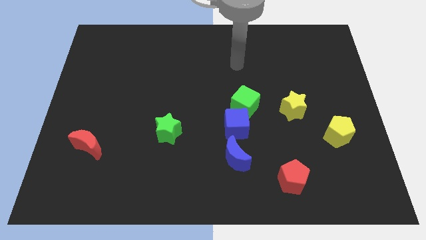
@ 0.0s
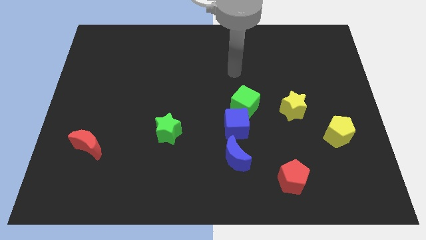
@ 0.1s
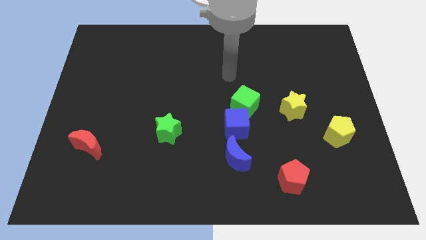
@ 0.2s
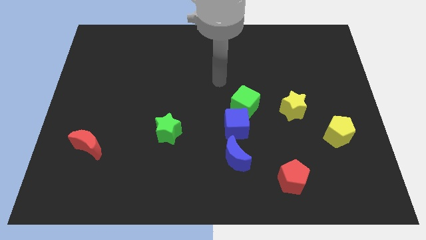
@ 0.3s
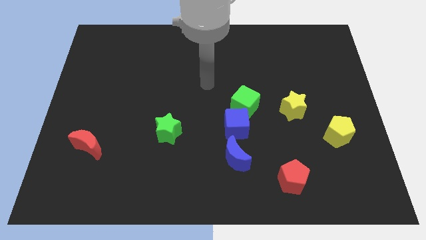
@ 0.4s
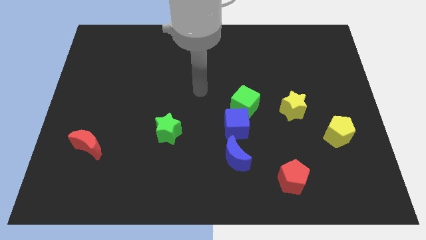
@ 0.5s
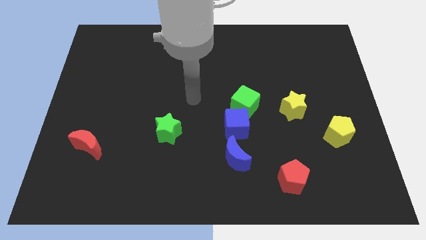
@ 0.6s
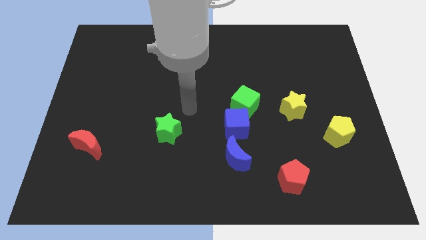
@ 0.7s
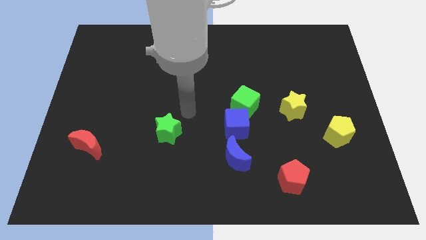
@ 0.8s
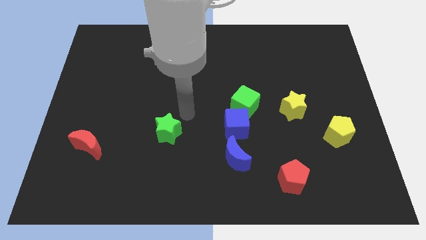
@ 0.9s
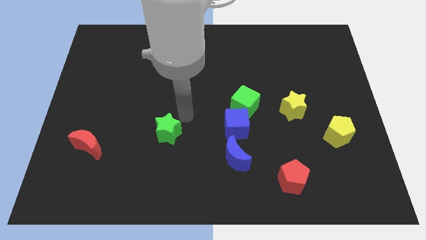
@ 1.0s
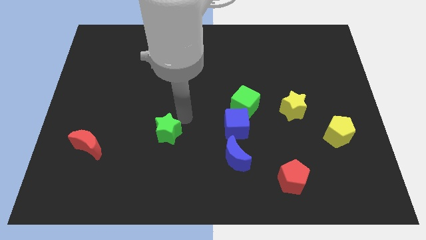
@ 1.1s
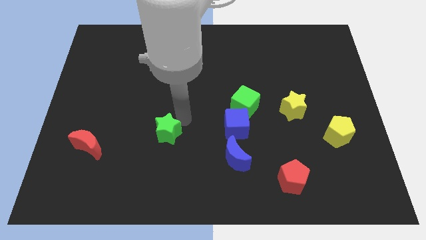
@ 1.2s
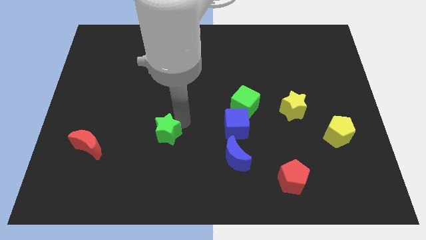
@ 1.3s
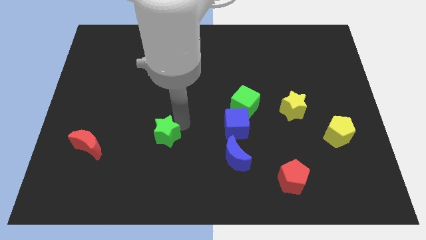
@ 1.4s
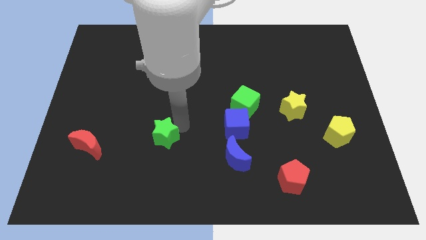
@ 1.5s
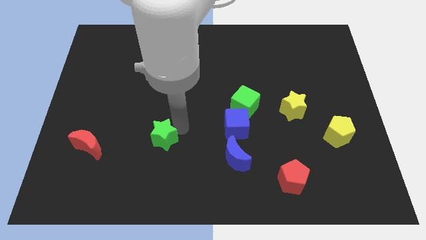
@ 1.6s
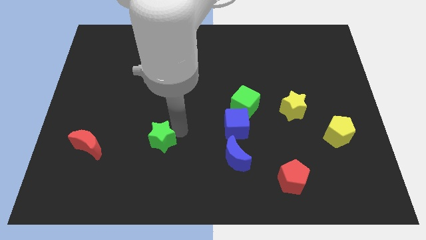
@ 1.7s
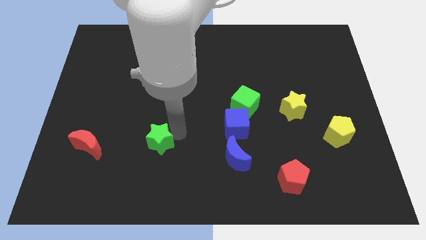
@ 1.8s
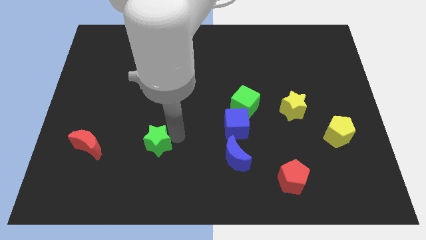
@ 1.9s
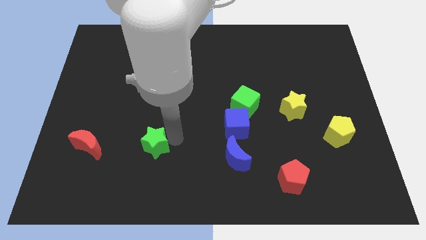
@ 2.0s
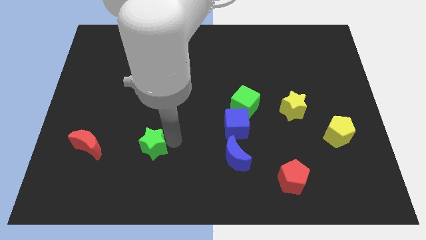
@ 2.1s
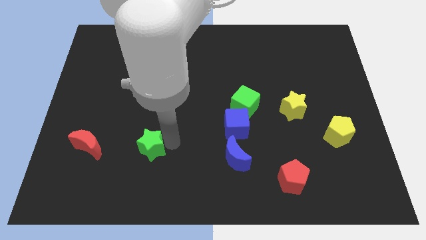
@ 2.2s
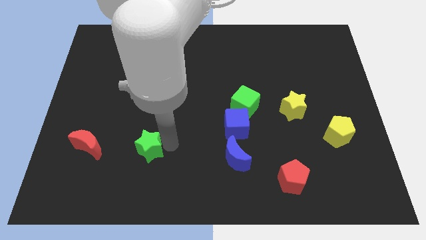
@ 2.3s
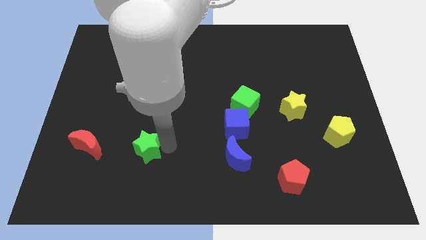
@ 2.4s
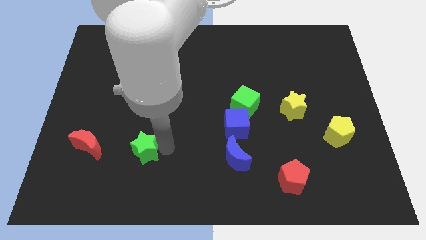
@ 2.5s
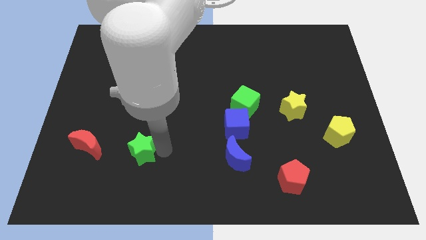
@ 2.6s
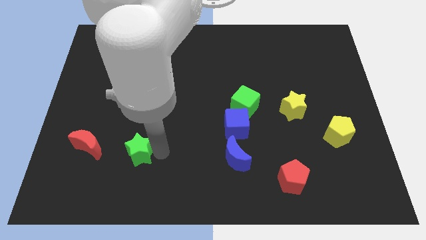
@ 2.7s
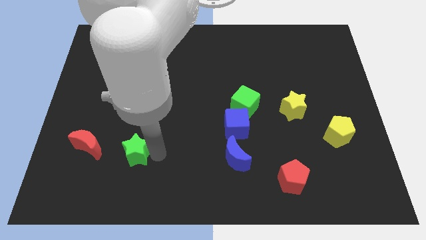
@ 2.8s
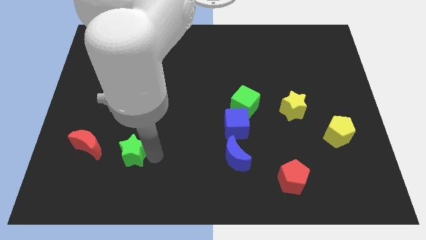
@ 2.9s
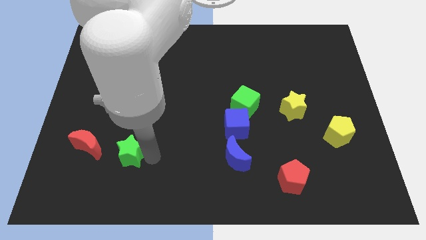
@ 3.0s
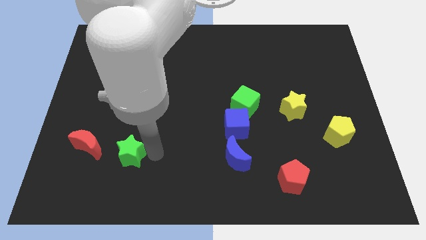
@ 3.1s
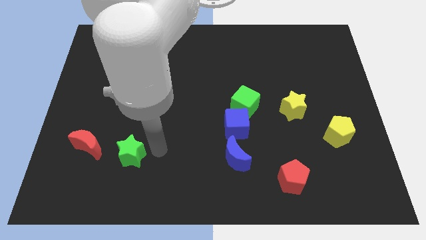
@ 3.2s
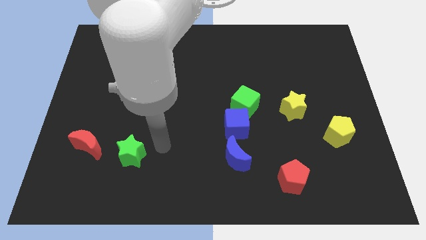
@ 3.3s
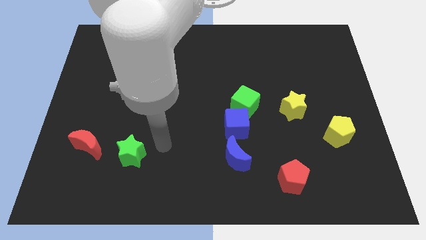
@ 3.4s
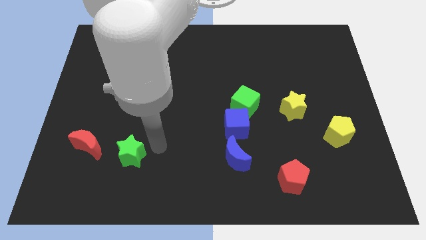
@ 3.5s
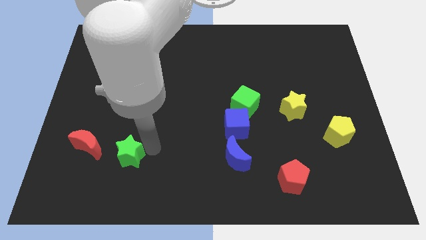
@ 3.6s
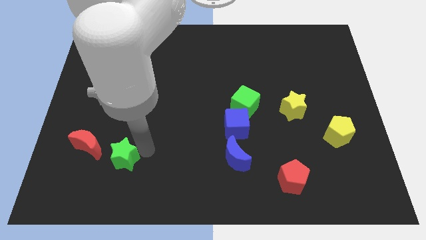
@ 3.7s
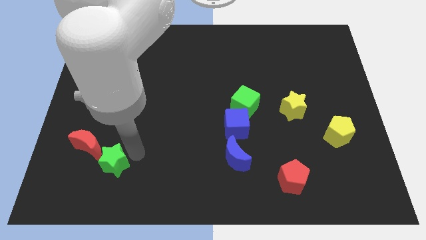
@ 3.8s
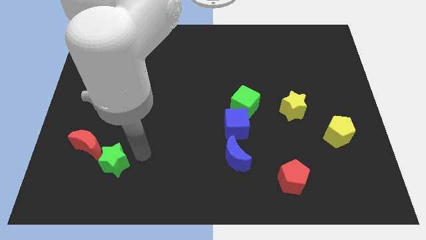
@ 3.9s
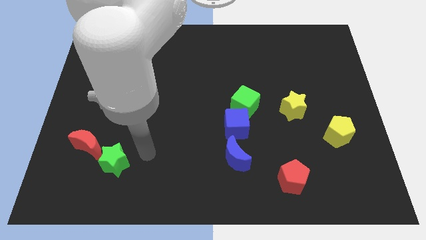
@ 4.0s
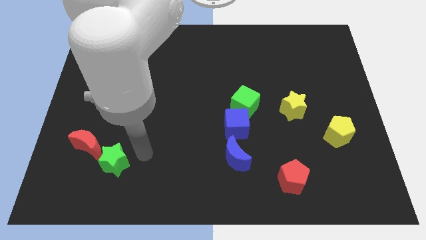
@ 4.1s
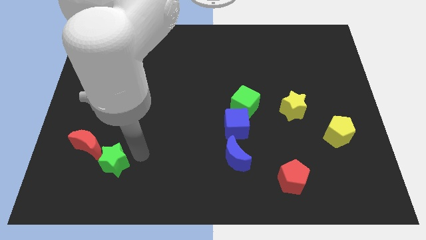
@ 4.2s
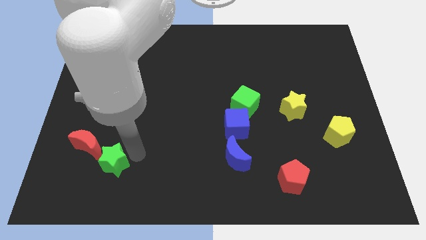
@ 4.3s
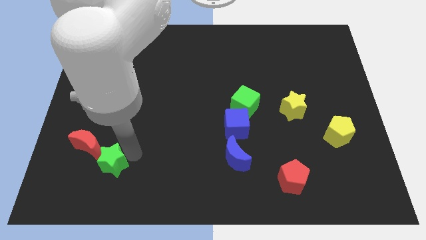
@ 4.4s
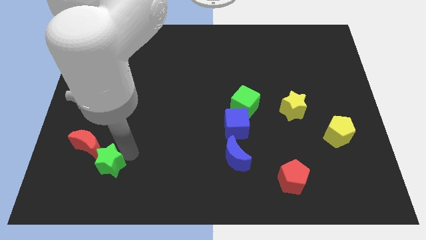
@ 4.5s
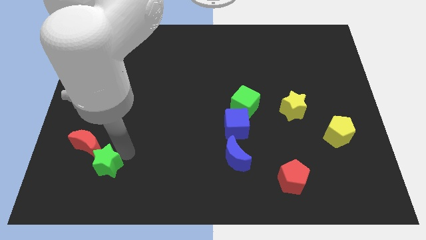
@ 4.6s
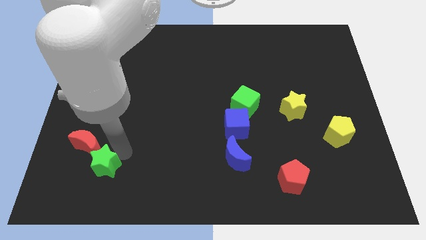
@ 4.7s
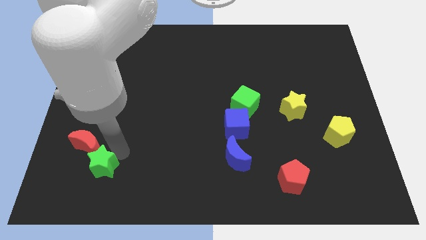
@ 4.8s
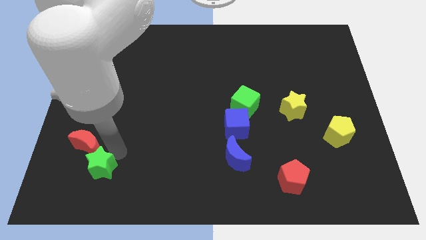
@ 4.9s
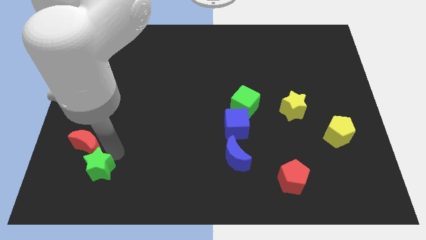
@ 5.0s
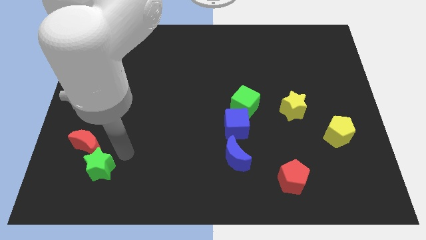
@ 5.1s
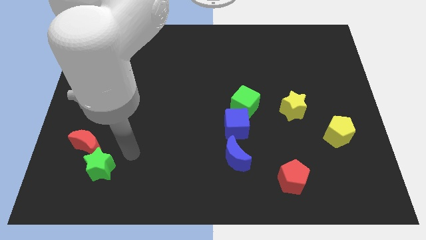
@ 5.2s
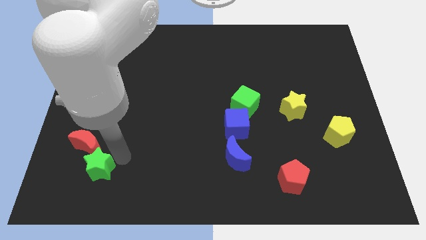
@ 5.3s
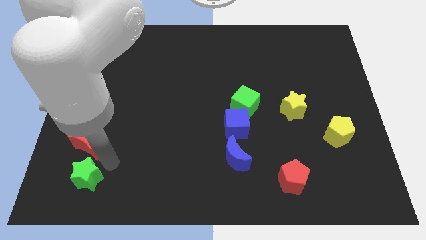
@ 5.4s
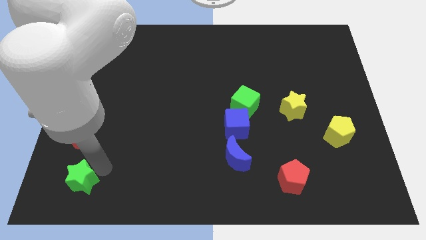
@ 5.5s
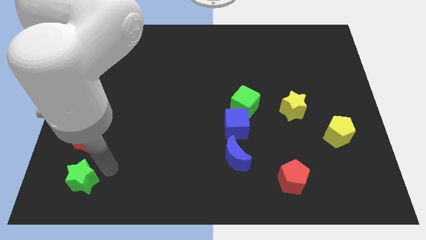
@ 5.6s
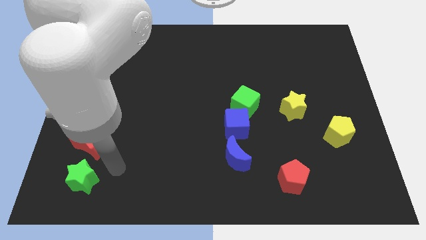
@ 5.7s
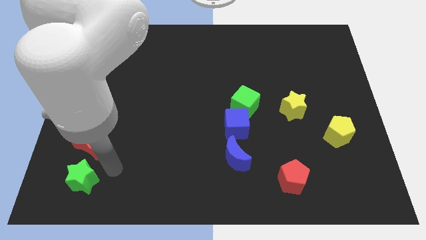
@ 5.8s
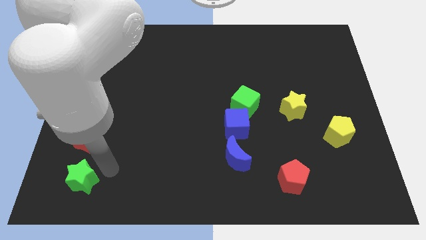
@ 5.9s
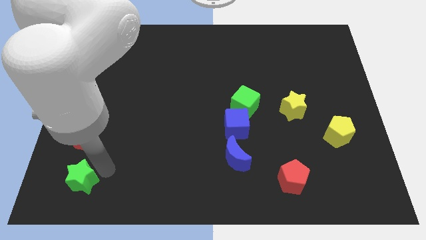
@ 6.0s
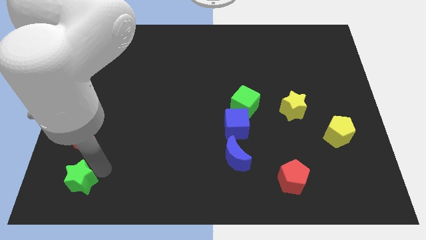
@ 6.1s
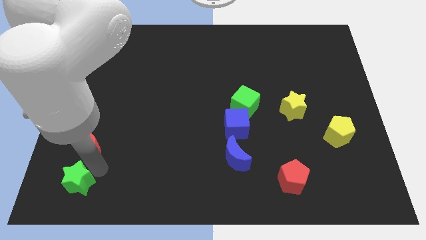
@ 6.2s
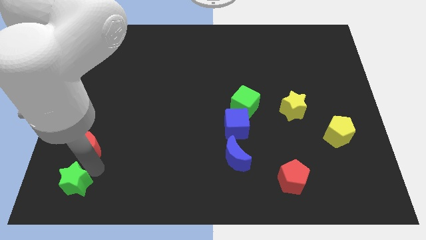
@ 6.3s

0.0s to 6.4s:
push the green star to the bottom left corner

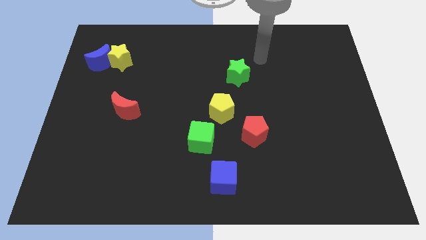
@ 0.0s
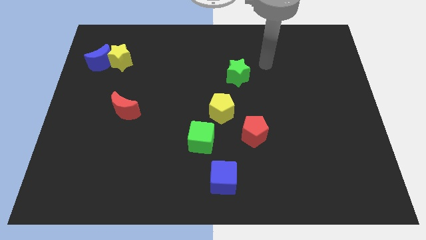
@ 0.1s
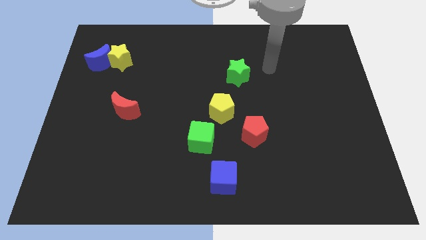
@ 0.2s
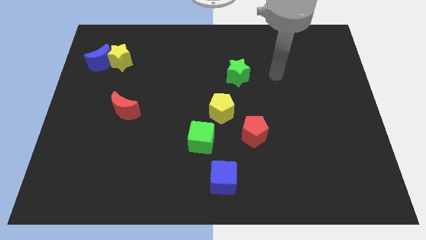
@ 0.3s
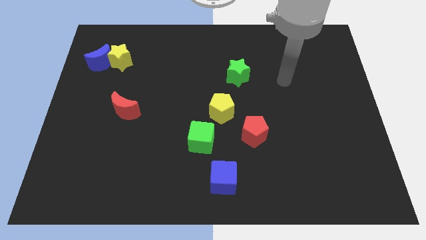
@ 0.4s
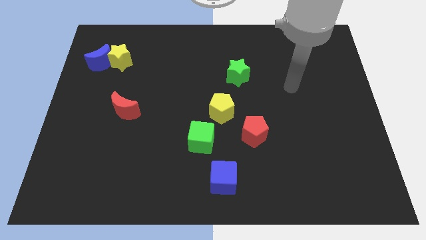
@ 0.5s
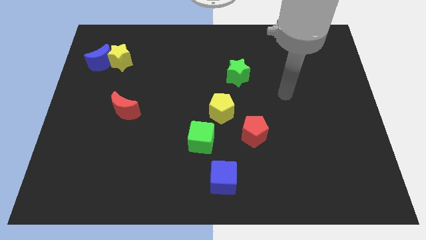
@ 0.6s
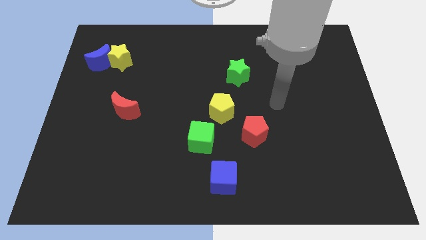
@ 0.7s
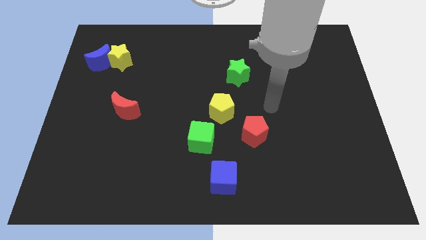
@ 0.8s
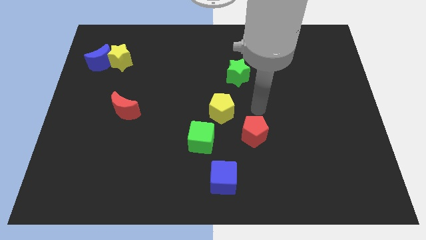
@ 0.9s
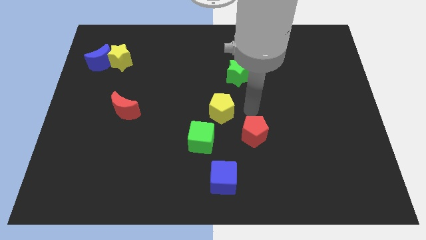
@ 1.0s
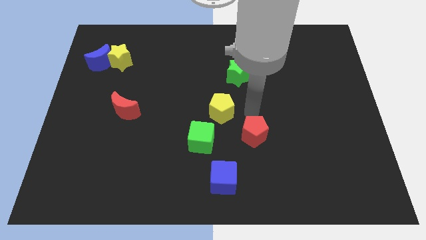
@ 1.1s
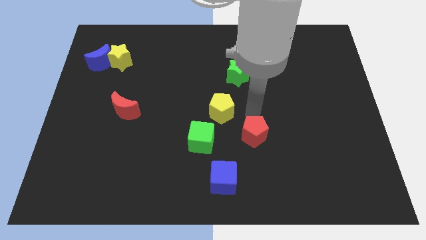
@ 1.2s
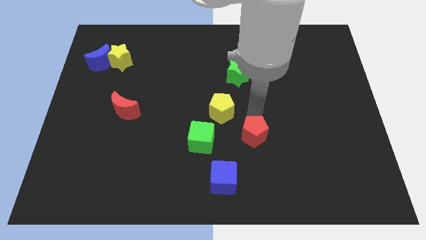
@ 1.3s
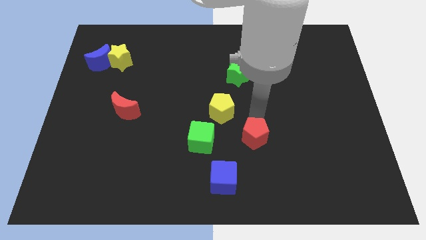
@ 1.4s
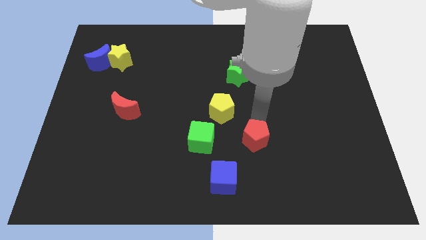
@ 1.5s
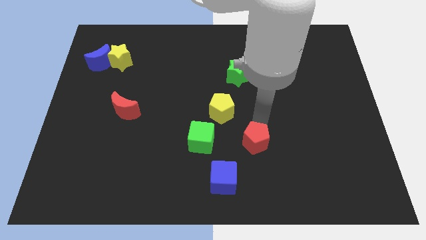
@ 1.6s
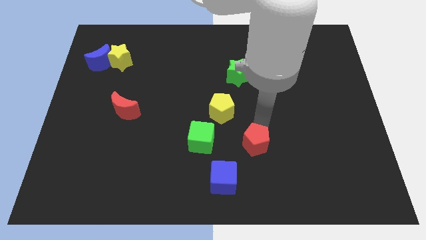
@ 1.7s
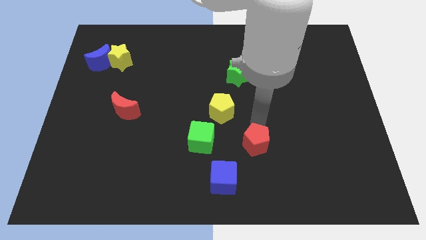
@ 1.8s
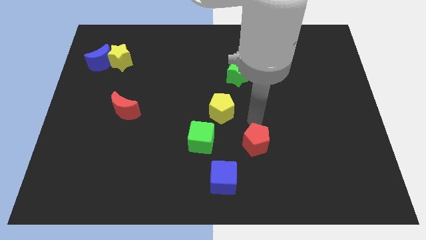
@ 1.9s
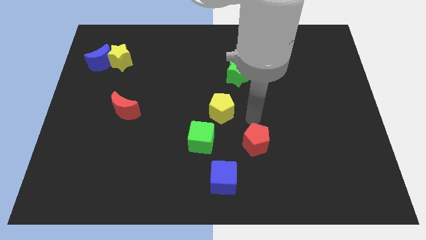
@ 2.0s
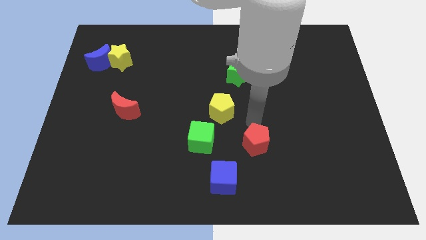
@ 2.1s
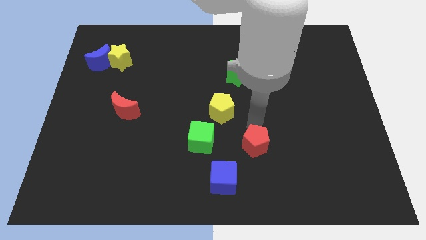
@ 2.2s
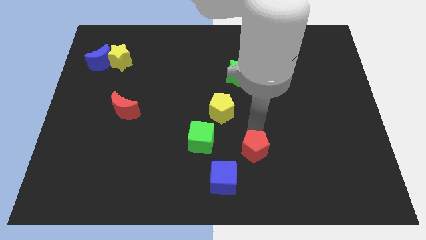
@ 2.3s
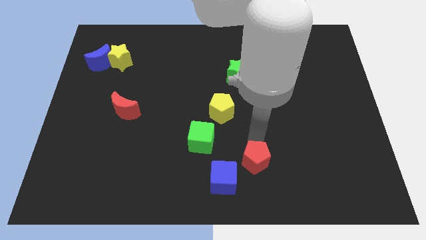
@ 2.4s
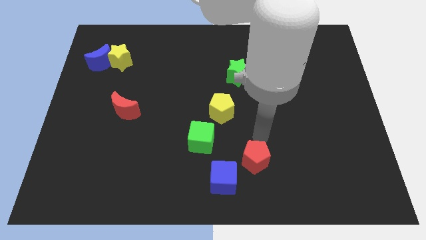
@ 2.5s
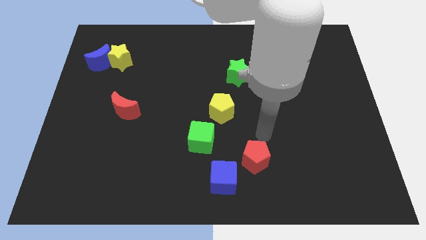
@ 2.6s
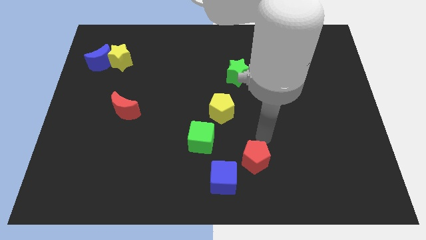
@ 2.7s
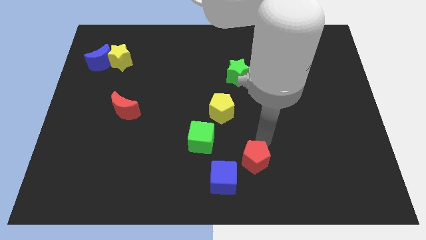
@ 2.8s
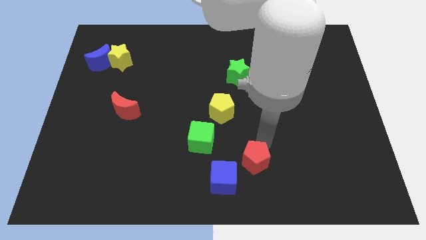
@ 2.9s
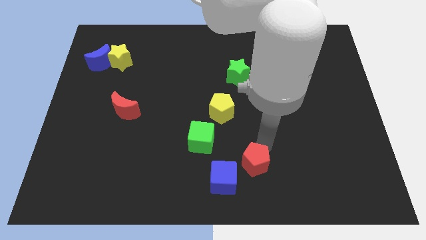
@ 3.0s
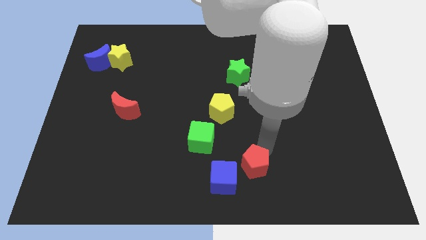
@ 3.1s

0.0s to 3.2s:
slide the red pentagon to the bottom side
